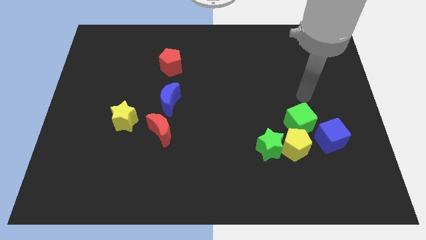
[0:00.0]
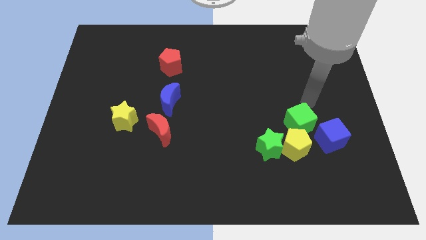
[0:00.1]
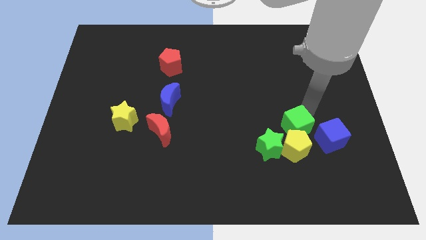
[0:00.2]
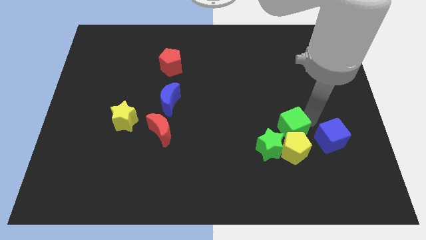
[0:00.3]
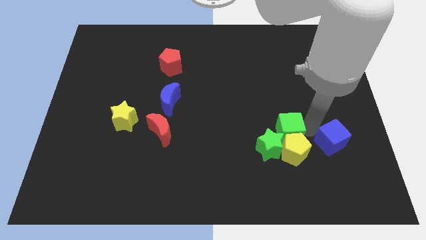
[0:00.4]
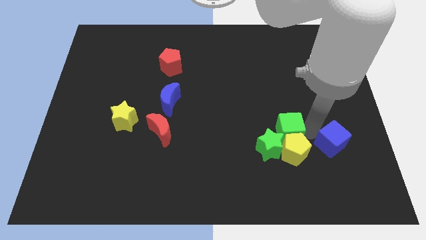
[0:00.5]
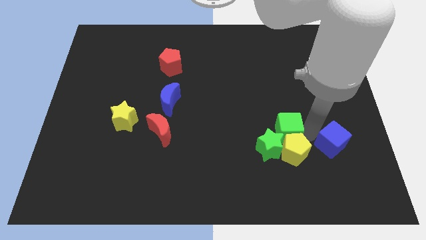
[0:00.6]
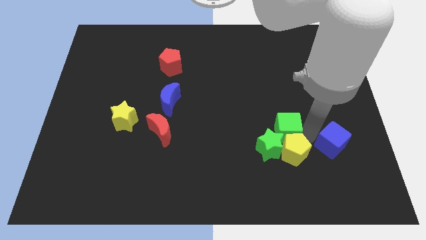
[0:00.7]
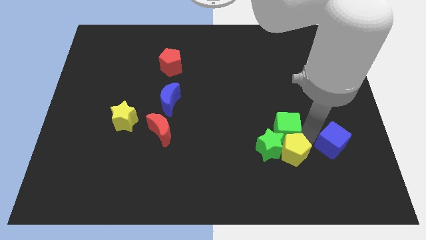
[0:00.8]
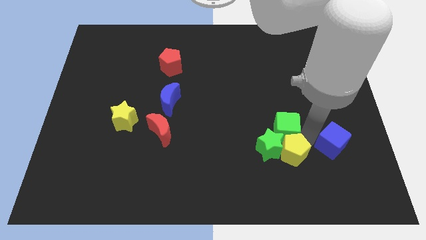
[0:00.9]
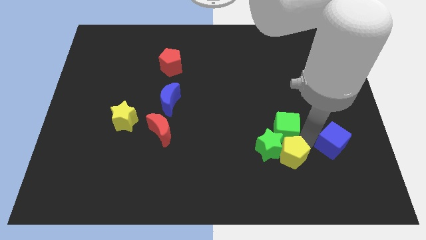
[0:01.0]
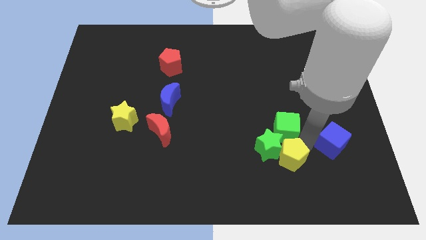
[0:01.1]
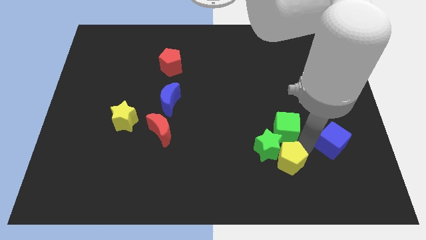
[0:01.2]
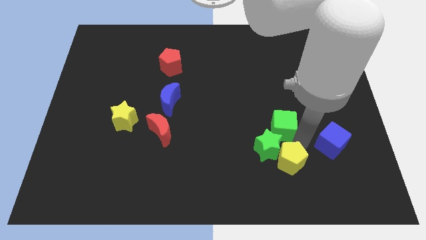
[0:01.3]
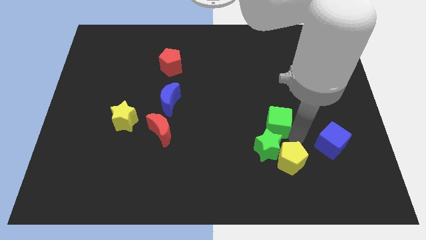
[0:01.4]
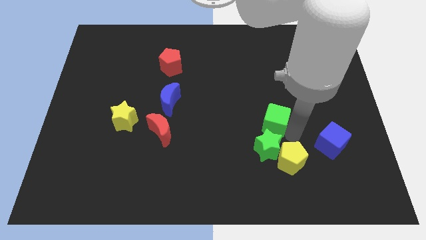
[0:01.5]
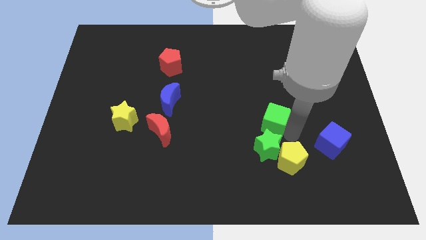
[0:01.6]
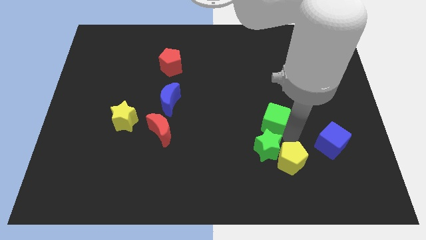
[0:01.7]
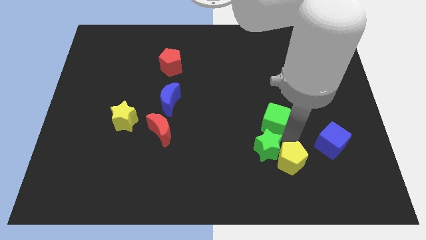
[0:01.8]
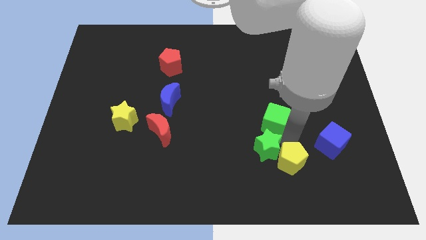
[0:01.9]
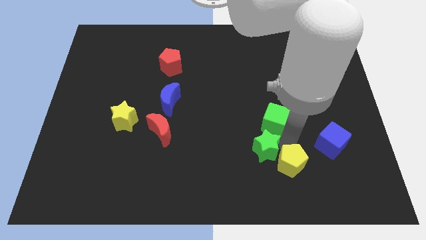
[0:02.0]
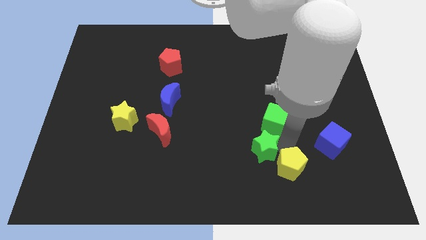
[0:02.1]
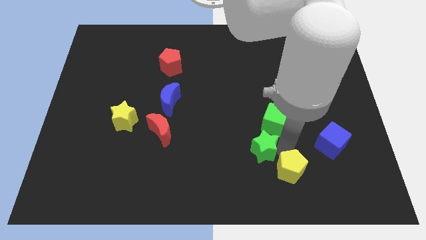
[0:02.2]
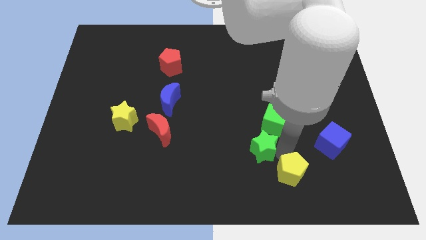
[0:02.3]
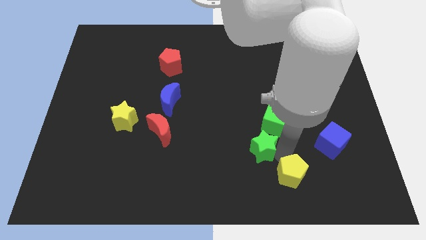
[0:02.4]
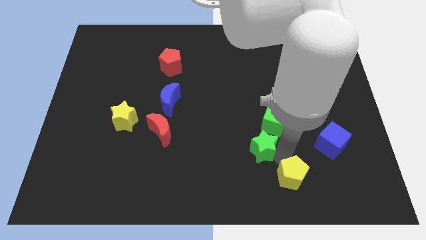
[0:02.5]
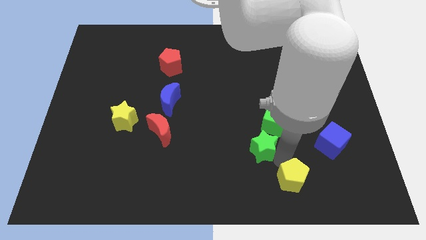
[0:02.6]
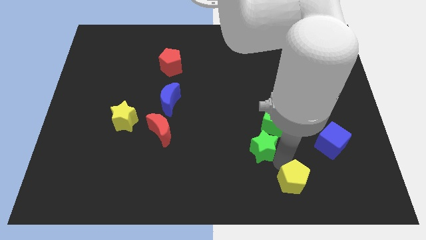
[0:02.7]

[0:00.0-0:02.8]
move the yellow pentagon away from the group

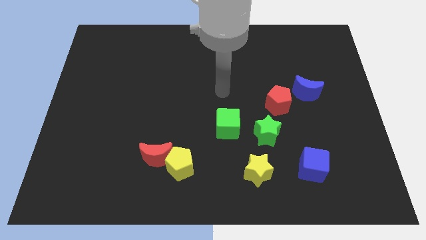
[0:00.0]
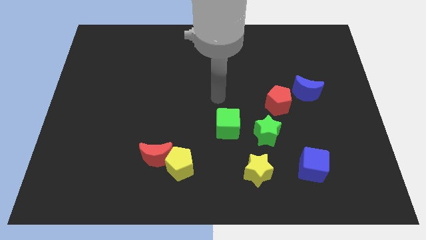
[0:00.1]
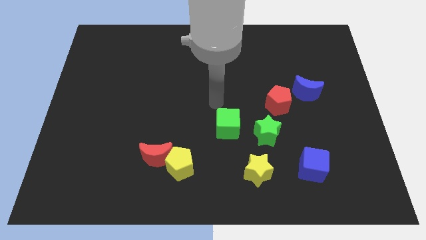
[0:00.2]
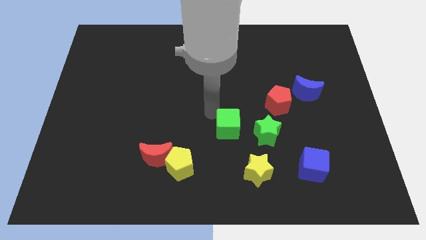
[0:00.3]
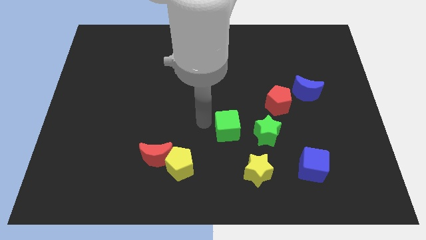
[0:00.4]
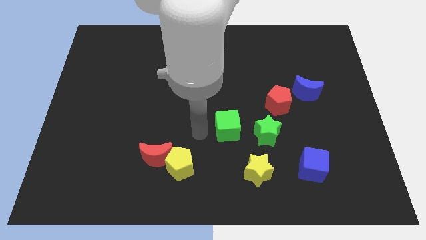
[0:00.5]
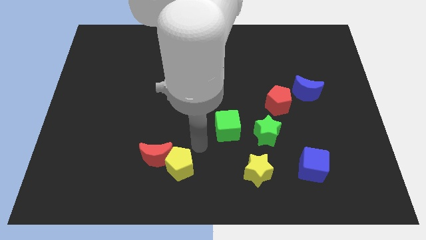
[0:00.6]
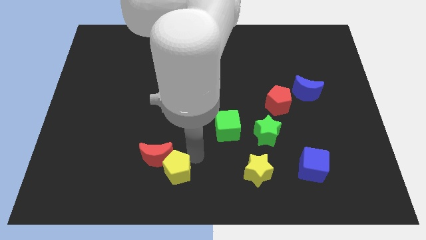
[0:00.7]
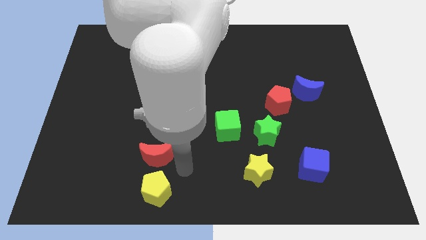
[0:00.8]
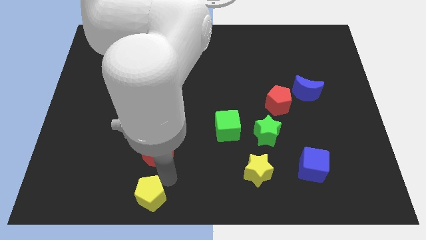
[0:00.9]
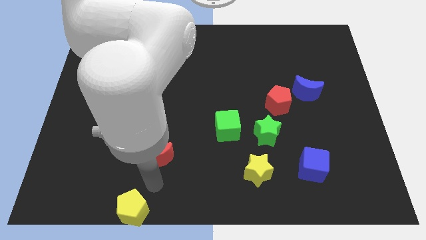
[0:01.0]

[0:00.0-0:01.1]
move the red moon away from the yellow pentagon

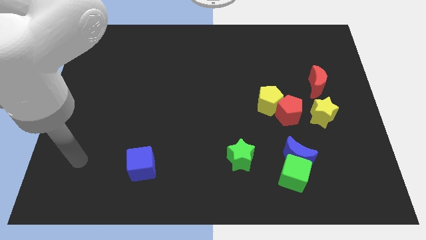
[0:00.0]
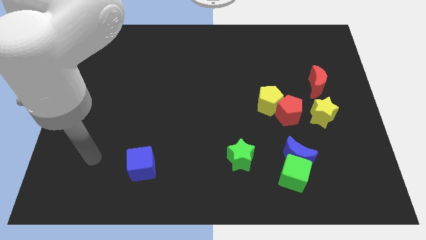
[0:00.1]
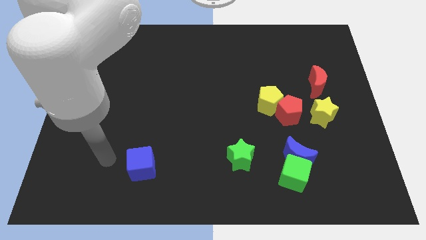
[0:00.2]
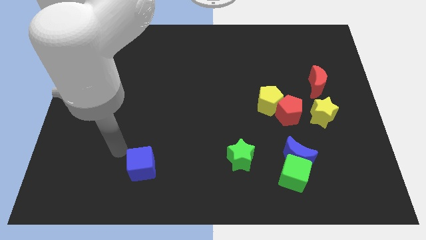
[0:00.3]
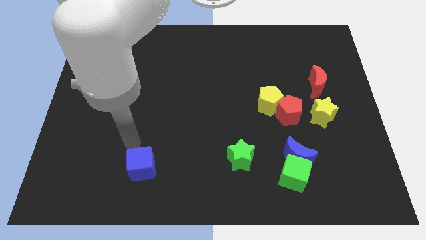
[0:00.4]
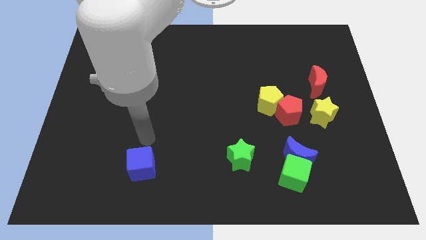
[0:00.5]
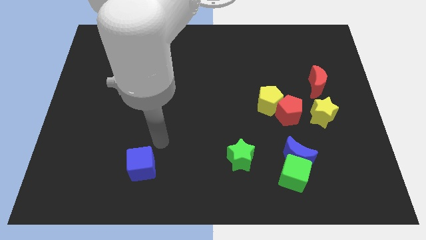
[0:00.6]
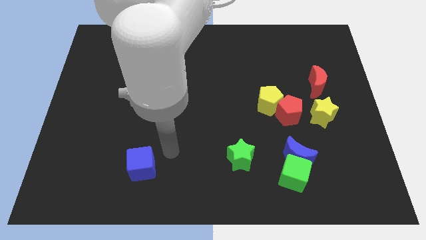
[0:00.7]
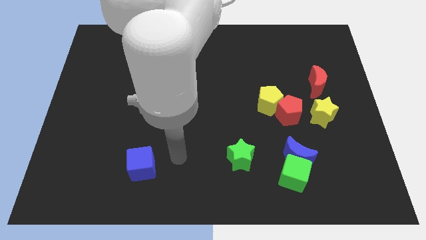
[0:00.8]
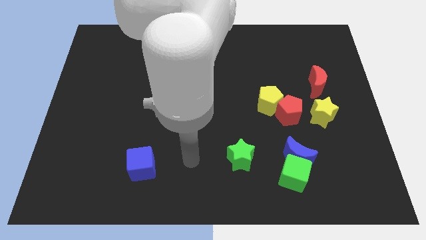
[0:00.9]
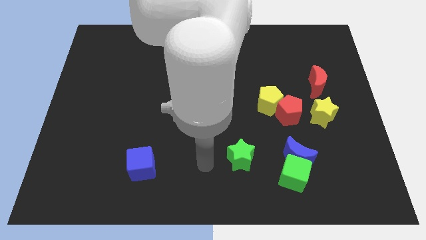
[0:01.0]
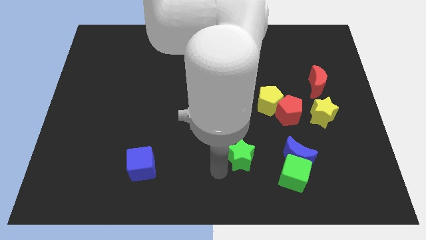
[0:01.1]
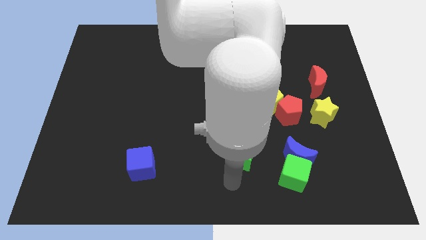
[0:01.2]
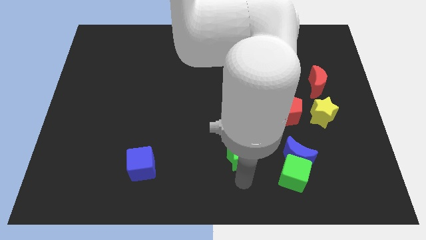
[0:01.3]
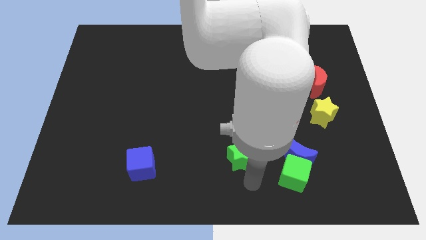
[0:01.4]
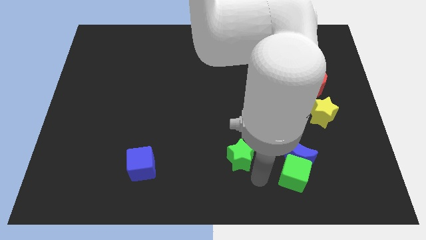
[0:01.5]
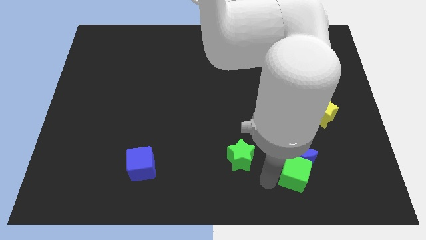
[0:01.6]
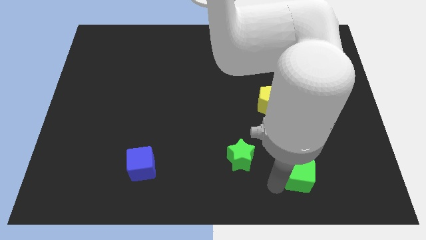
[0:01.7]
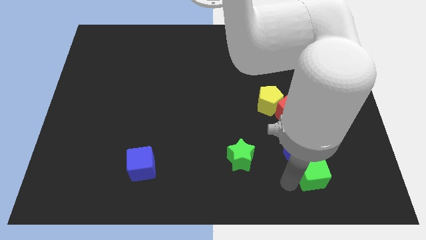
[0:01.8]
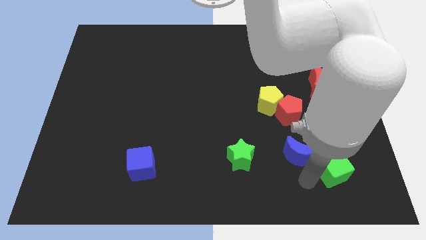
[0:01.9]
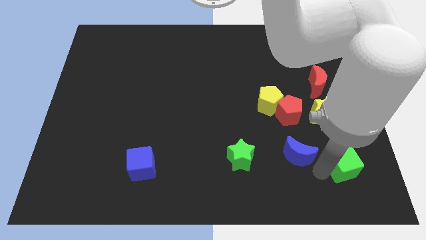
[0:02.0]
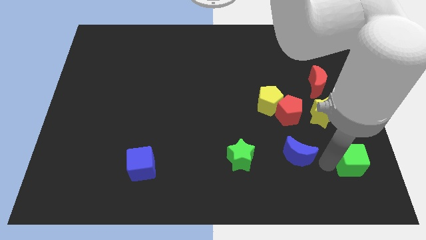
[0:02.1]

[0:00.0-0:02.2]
move the blue moon away from the green cube

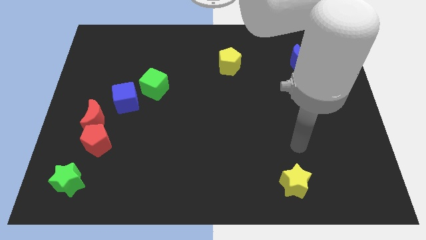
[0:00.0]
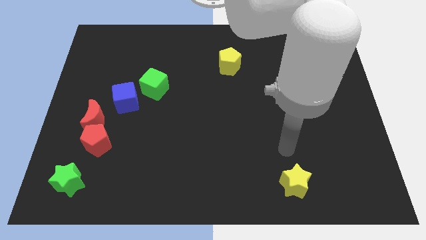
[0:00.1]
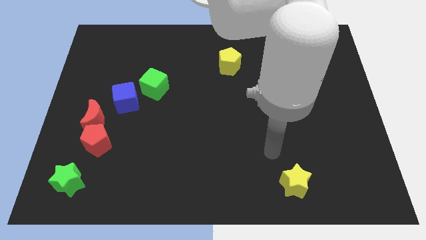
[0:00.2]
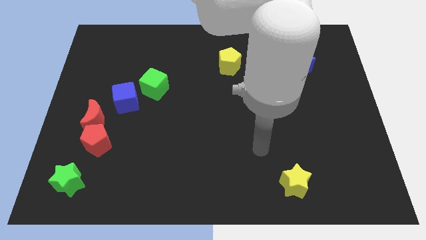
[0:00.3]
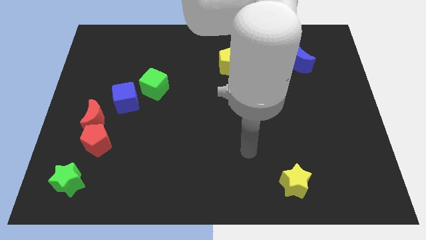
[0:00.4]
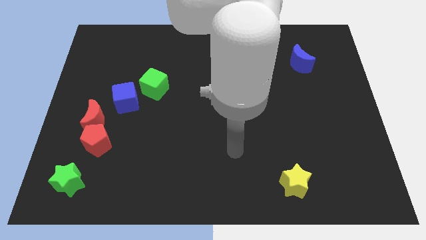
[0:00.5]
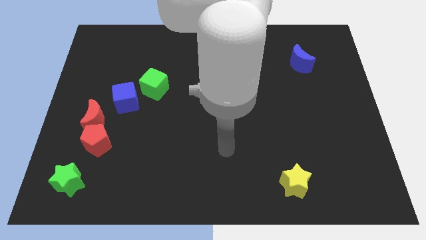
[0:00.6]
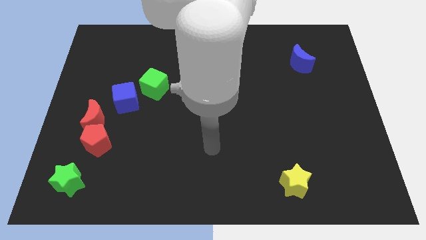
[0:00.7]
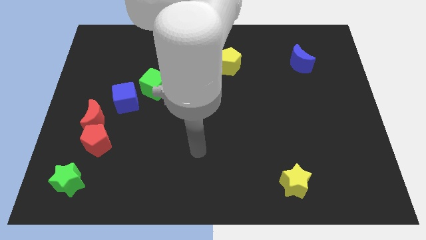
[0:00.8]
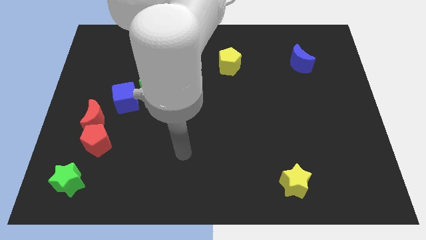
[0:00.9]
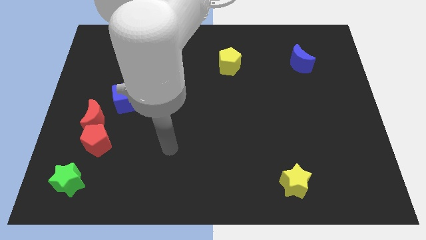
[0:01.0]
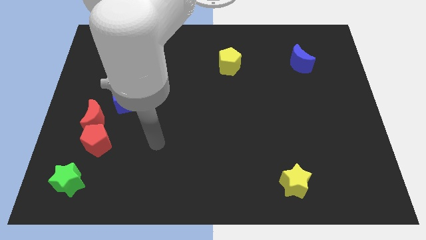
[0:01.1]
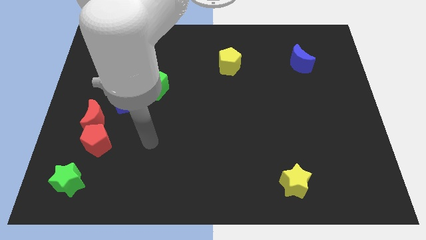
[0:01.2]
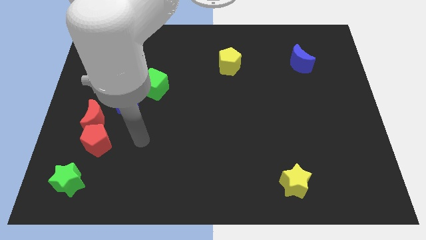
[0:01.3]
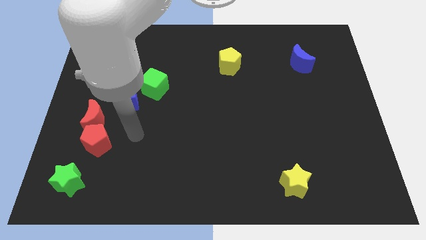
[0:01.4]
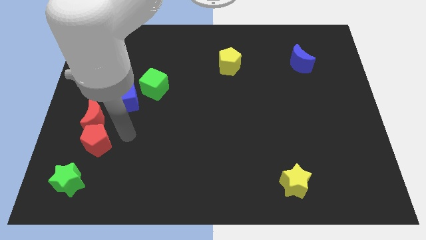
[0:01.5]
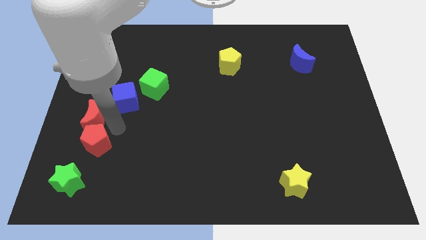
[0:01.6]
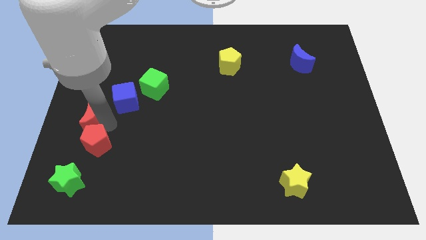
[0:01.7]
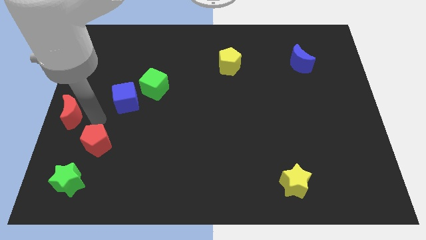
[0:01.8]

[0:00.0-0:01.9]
separate the red pentagon from the red moon

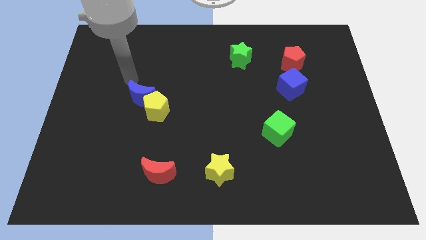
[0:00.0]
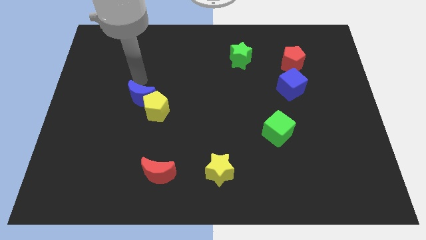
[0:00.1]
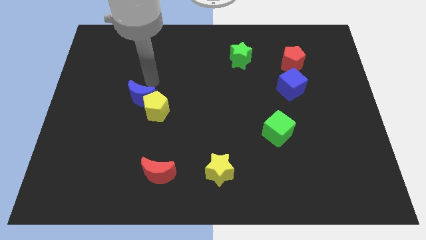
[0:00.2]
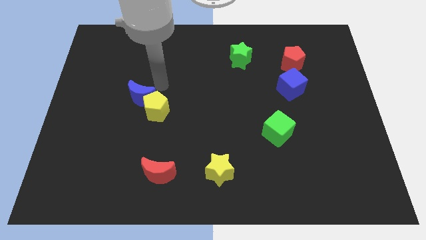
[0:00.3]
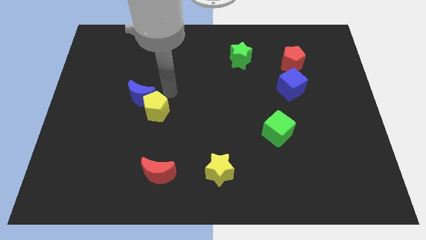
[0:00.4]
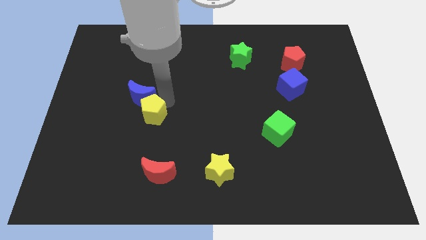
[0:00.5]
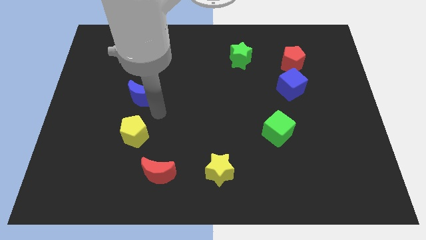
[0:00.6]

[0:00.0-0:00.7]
separate the blue moon from the yellow pentagon

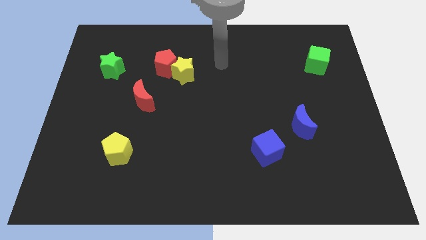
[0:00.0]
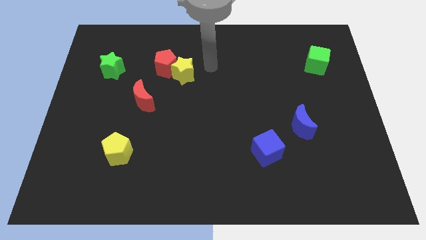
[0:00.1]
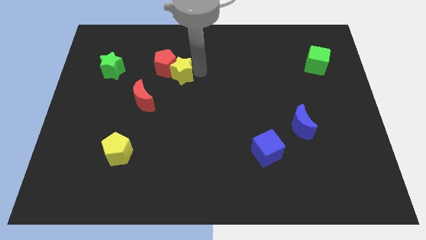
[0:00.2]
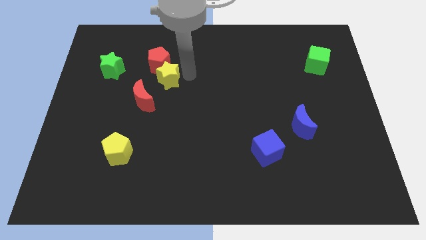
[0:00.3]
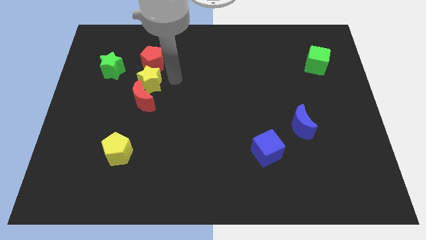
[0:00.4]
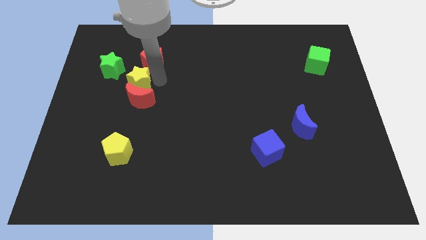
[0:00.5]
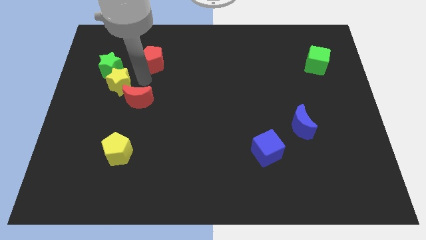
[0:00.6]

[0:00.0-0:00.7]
pull the red pentagon apart from the yellow star
